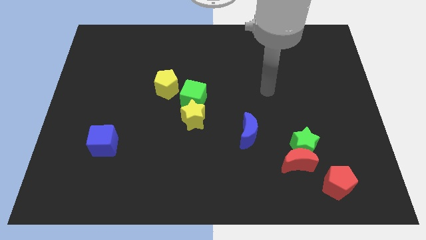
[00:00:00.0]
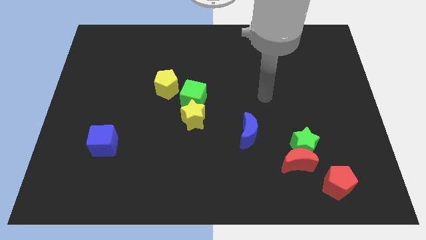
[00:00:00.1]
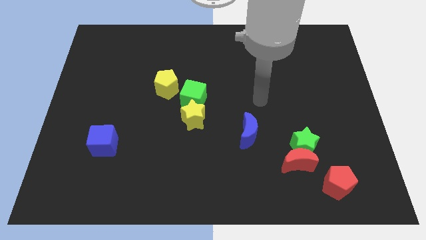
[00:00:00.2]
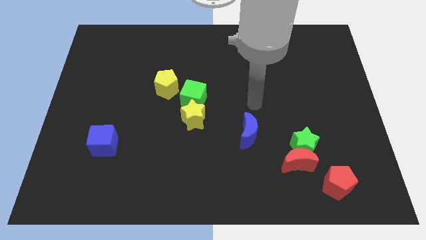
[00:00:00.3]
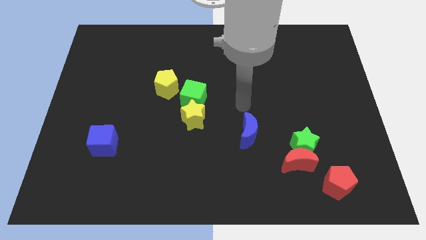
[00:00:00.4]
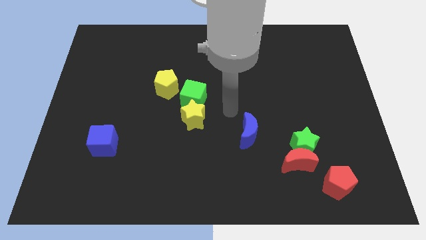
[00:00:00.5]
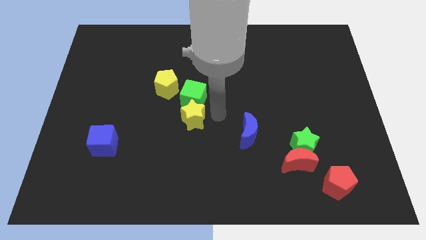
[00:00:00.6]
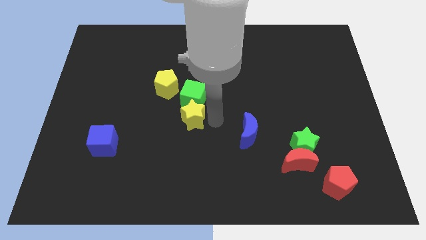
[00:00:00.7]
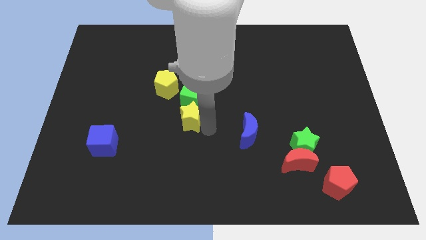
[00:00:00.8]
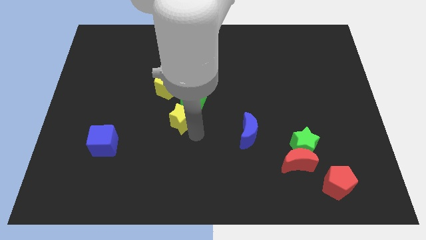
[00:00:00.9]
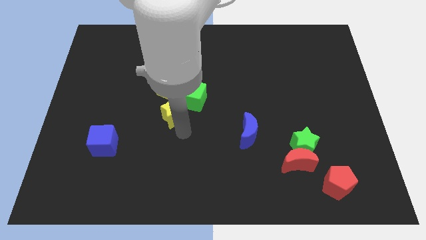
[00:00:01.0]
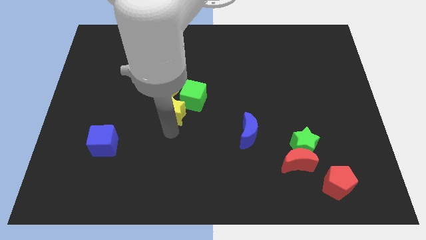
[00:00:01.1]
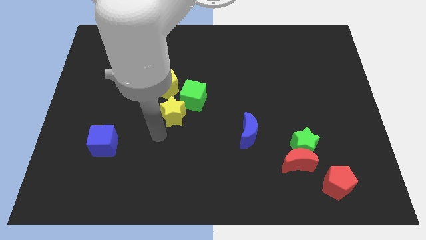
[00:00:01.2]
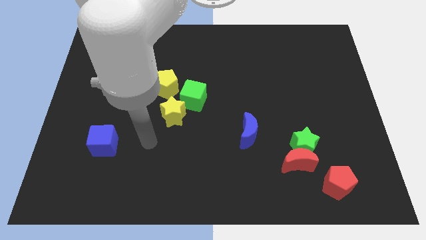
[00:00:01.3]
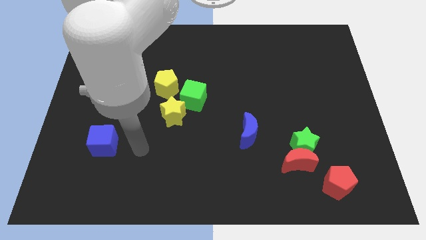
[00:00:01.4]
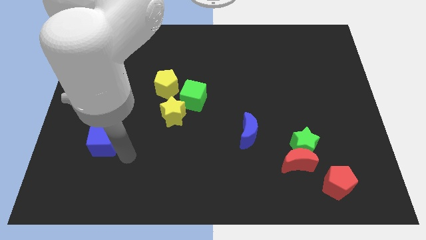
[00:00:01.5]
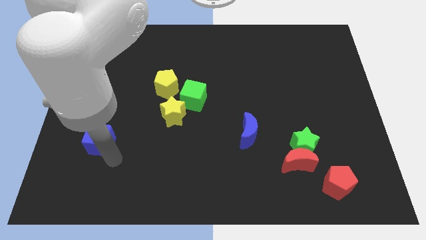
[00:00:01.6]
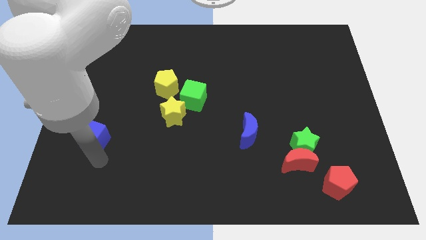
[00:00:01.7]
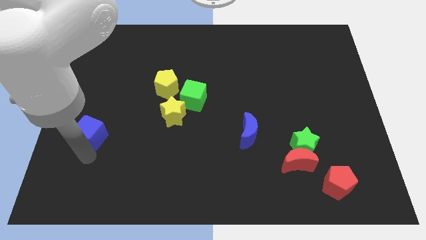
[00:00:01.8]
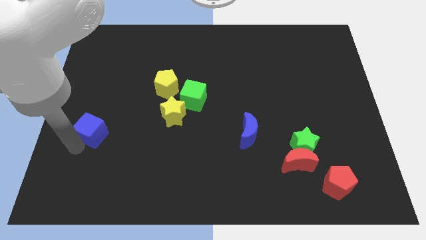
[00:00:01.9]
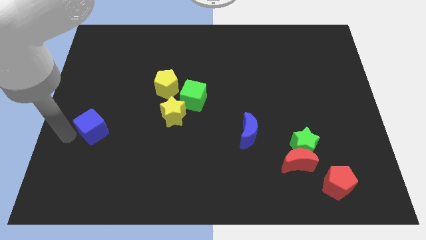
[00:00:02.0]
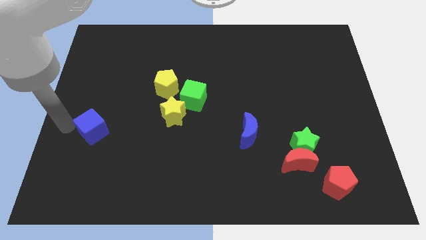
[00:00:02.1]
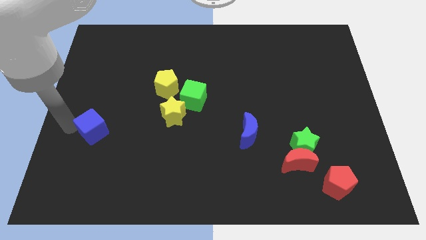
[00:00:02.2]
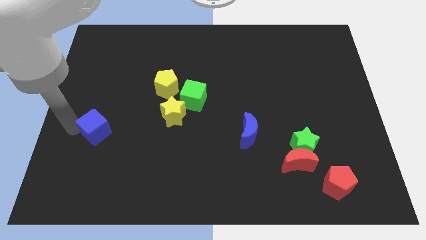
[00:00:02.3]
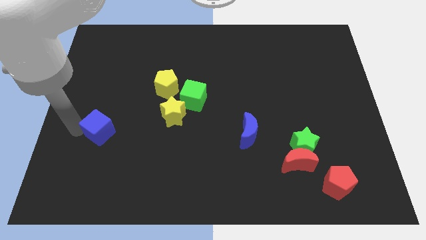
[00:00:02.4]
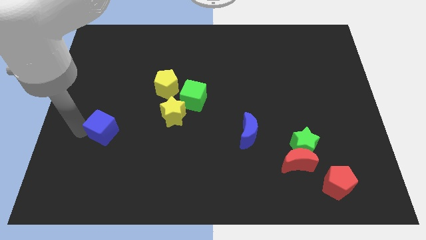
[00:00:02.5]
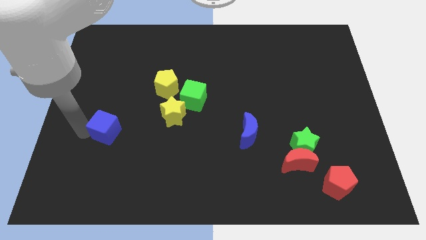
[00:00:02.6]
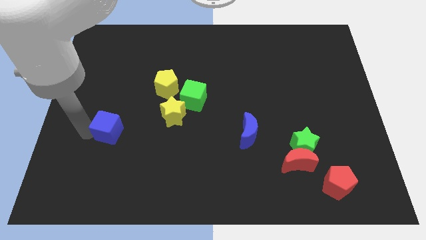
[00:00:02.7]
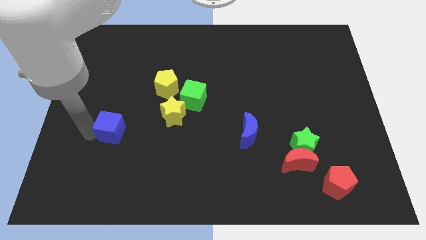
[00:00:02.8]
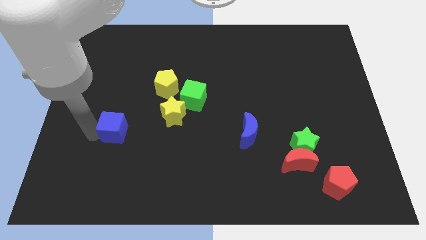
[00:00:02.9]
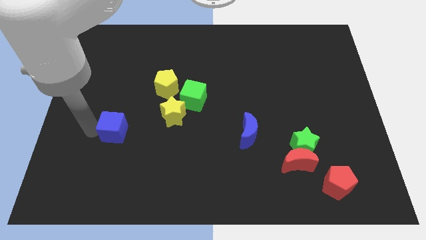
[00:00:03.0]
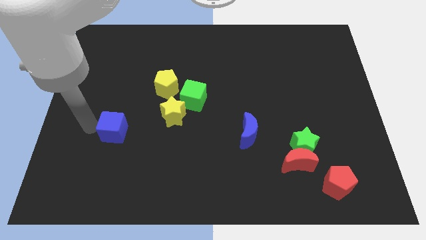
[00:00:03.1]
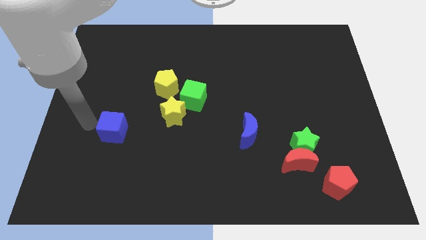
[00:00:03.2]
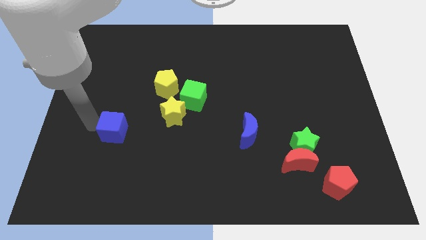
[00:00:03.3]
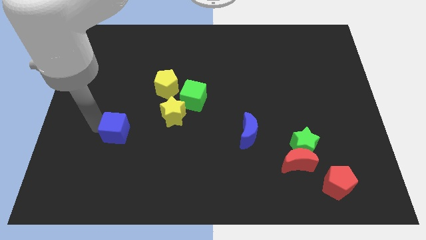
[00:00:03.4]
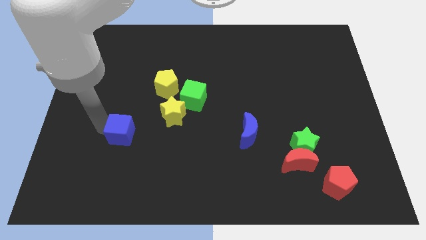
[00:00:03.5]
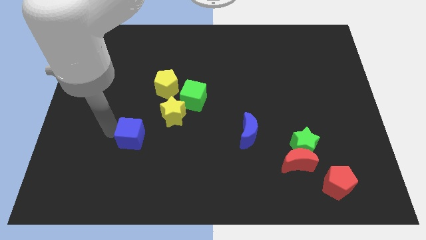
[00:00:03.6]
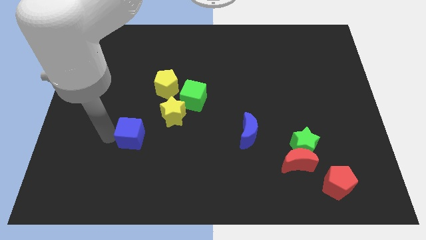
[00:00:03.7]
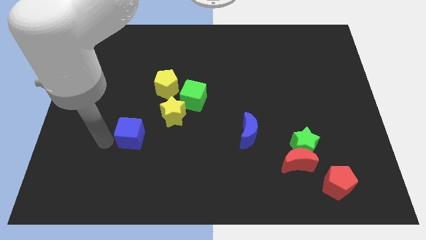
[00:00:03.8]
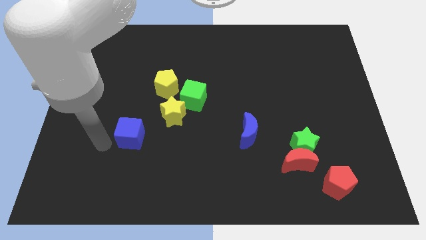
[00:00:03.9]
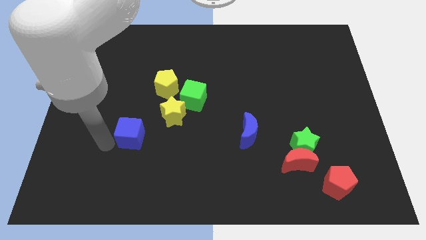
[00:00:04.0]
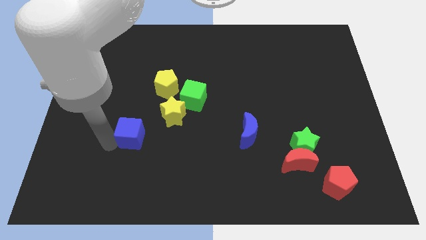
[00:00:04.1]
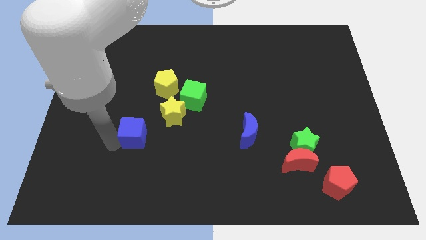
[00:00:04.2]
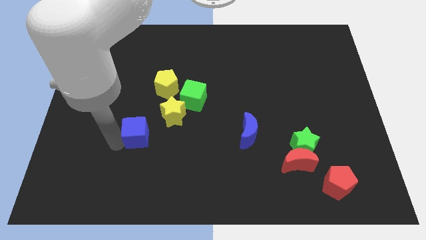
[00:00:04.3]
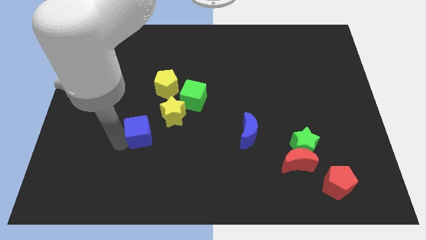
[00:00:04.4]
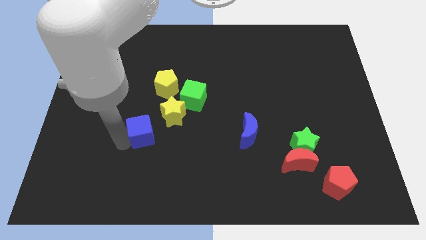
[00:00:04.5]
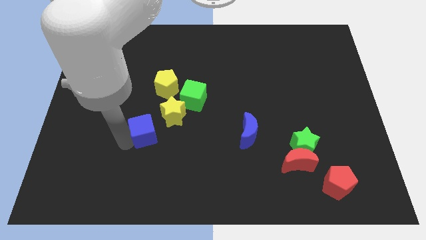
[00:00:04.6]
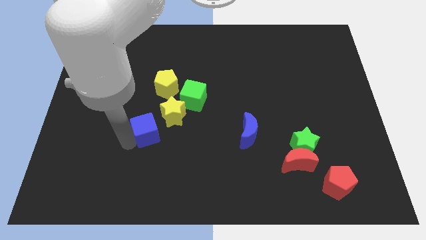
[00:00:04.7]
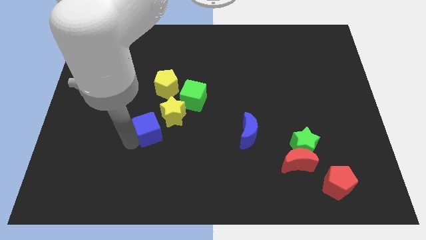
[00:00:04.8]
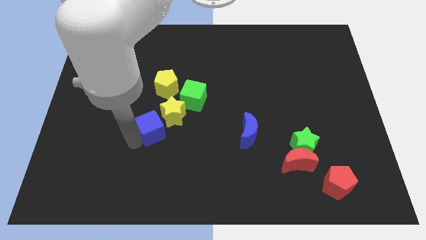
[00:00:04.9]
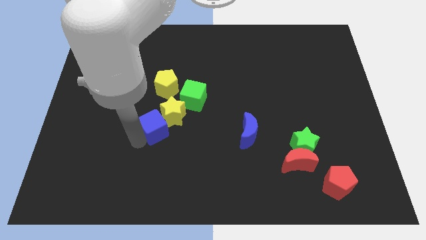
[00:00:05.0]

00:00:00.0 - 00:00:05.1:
push the blue cube towards the yellow star

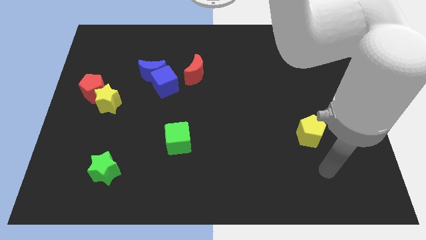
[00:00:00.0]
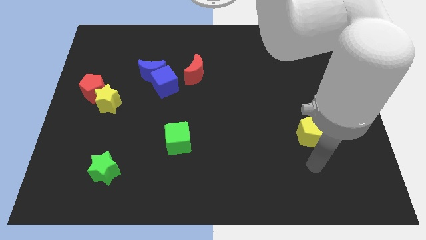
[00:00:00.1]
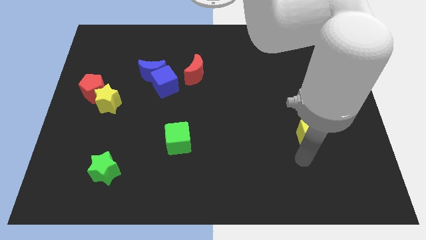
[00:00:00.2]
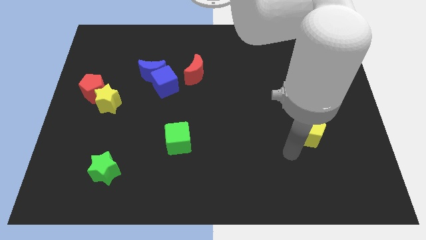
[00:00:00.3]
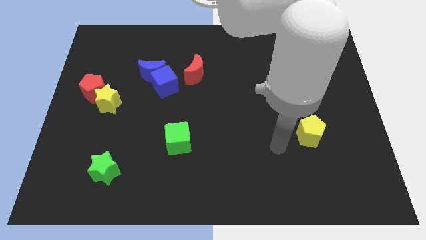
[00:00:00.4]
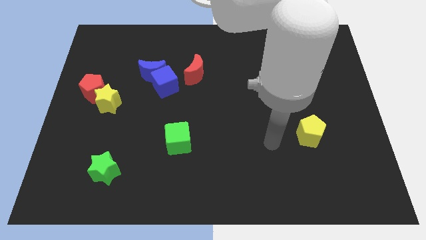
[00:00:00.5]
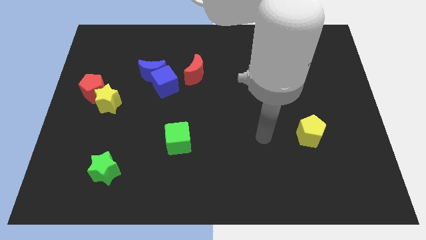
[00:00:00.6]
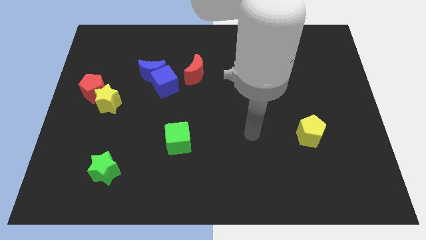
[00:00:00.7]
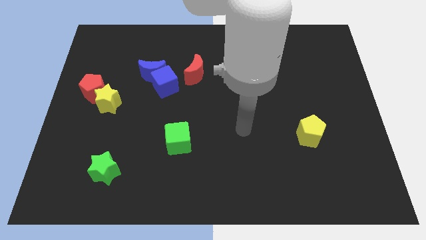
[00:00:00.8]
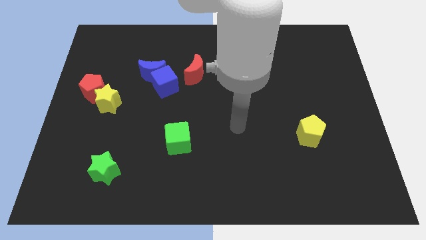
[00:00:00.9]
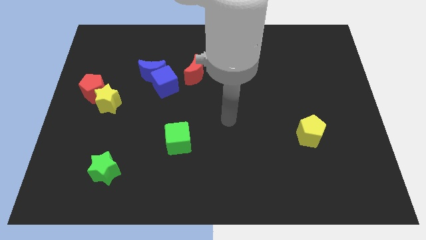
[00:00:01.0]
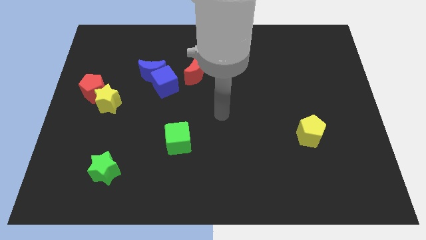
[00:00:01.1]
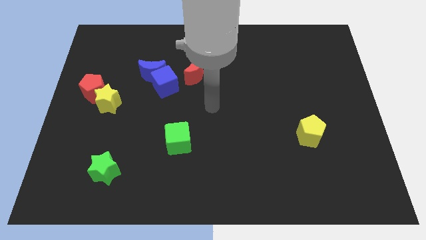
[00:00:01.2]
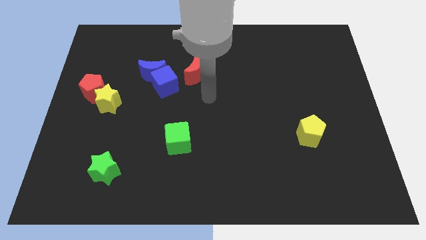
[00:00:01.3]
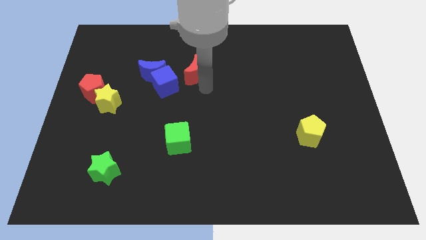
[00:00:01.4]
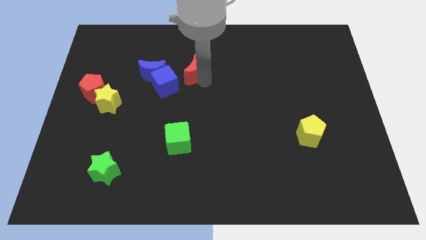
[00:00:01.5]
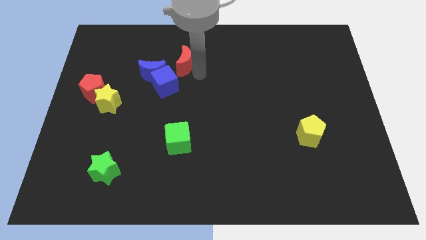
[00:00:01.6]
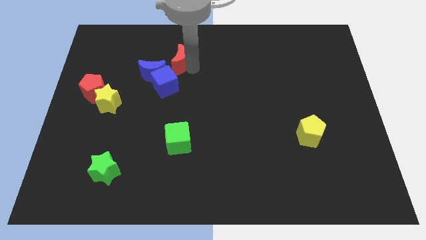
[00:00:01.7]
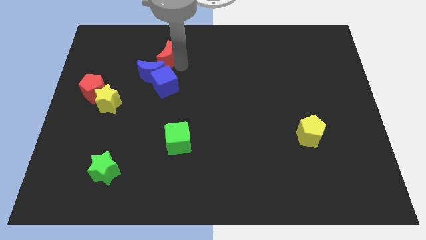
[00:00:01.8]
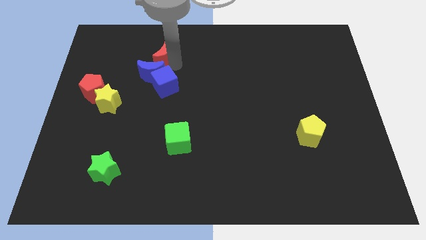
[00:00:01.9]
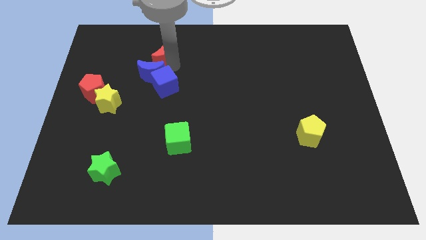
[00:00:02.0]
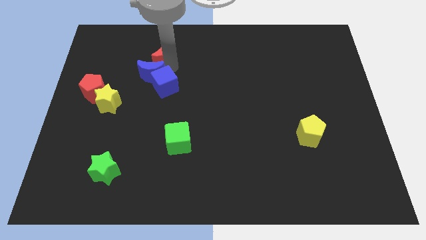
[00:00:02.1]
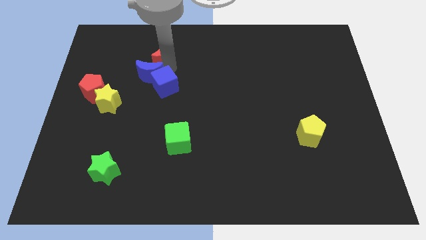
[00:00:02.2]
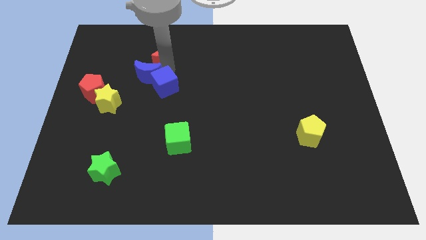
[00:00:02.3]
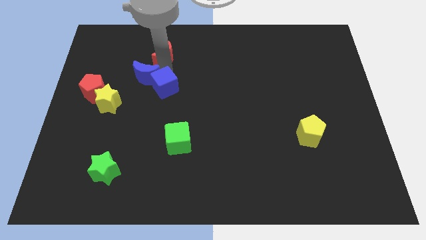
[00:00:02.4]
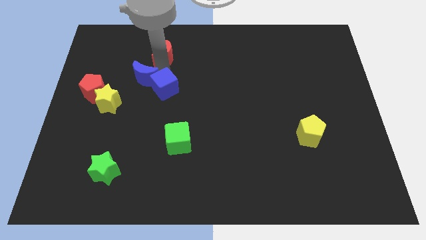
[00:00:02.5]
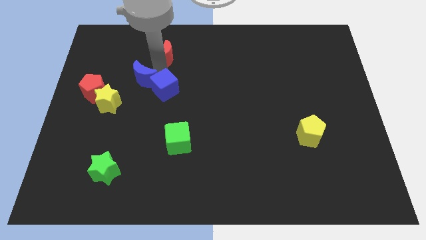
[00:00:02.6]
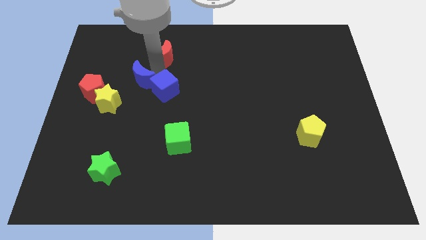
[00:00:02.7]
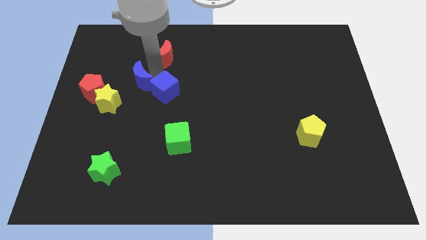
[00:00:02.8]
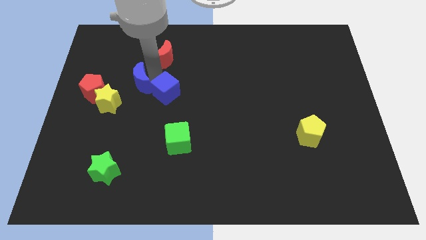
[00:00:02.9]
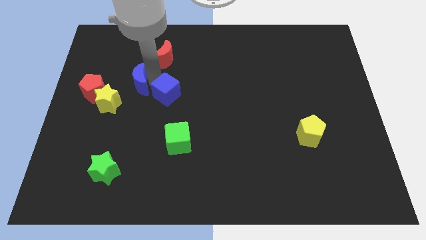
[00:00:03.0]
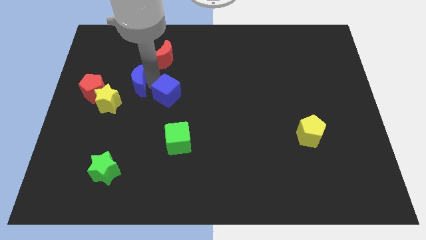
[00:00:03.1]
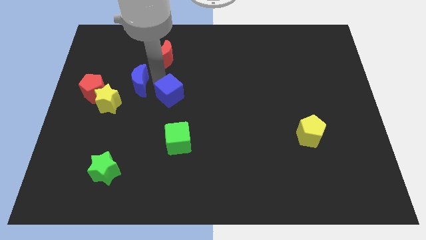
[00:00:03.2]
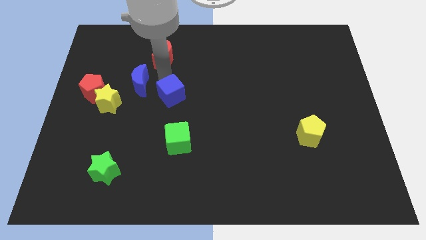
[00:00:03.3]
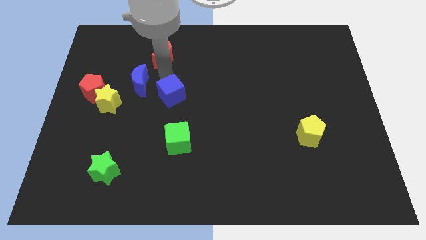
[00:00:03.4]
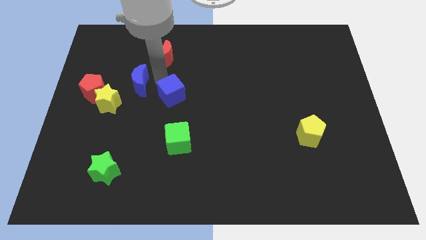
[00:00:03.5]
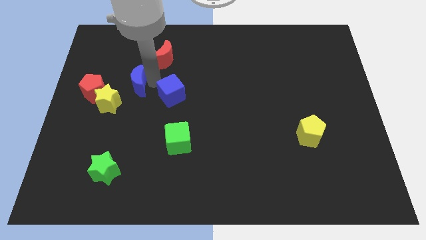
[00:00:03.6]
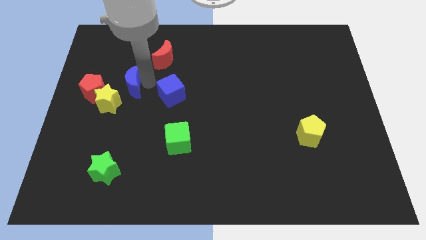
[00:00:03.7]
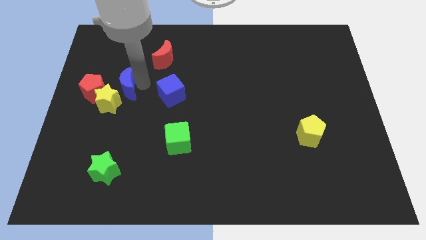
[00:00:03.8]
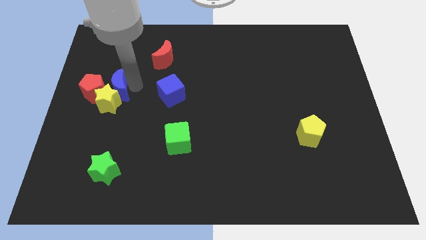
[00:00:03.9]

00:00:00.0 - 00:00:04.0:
push the blue moon to the red pentagon
